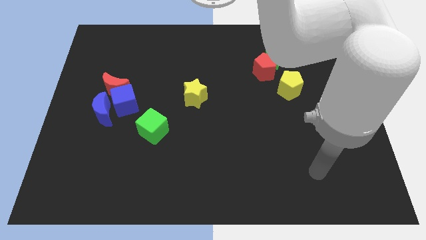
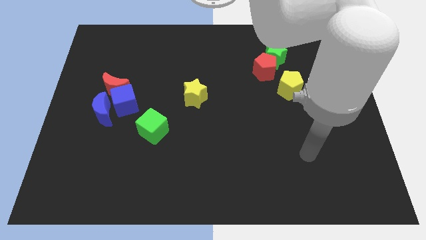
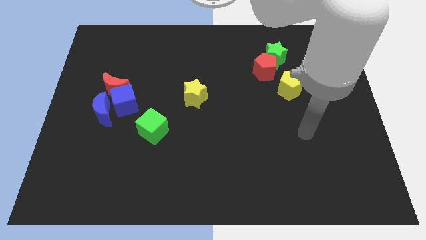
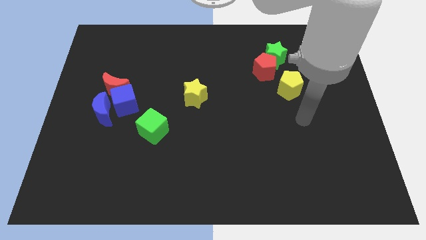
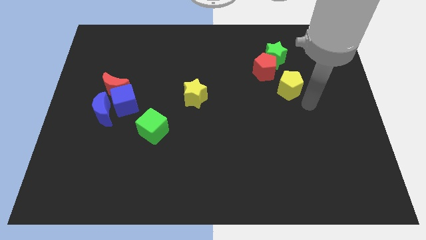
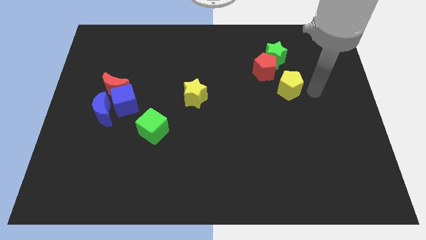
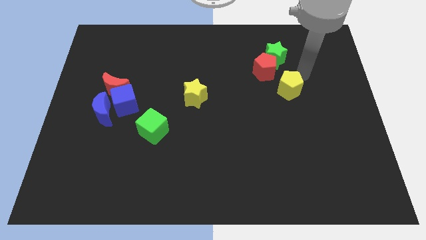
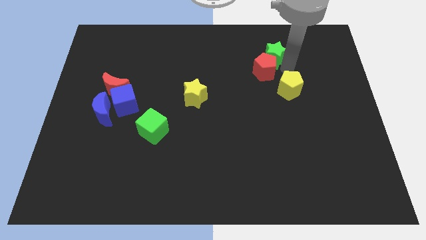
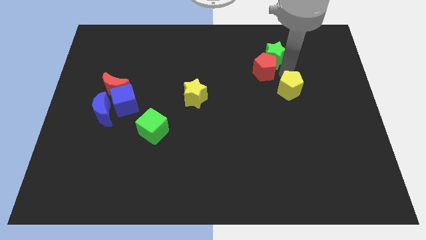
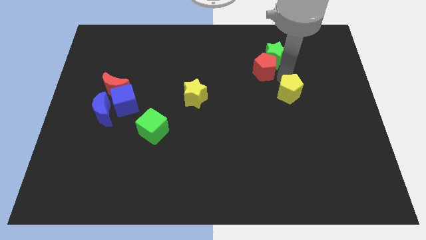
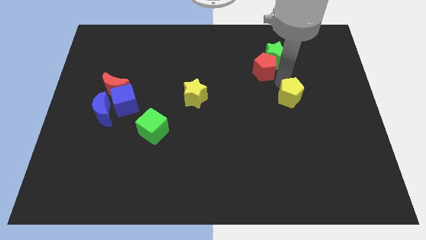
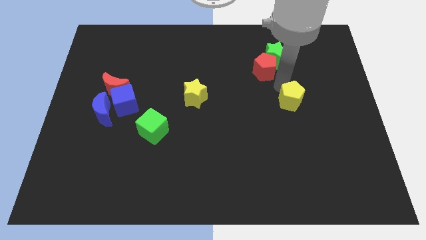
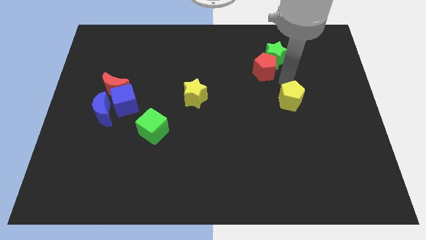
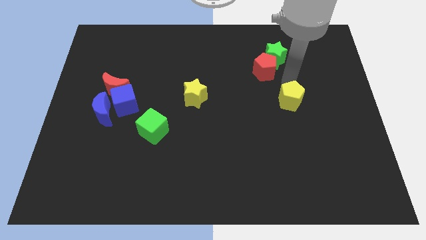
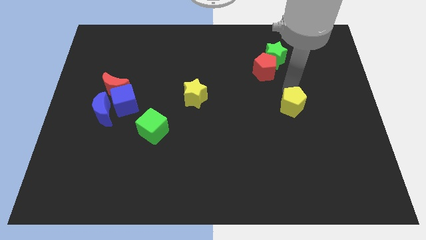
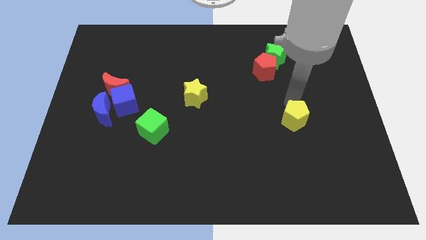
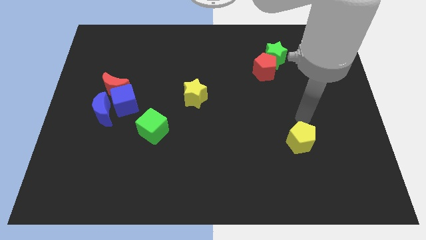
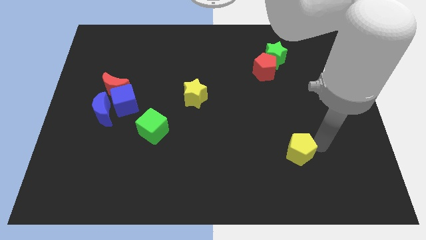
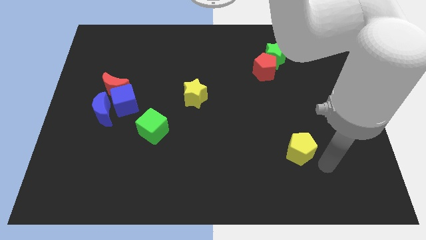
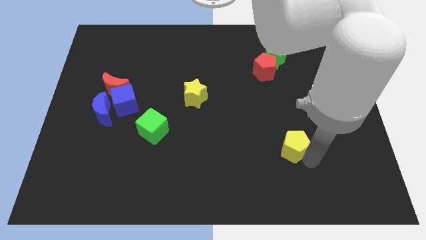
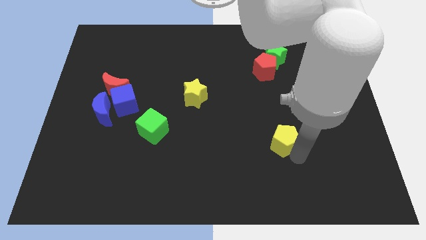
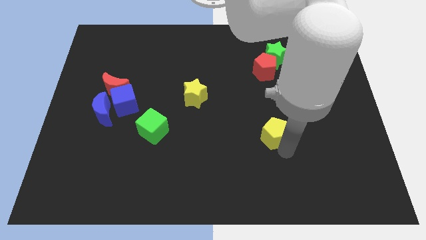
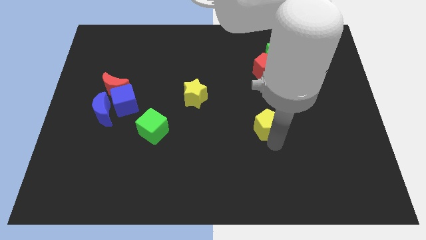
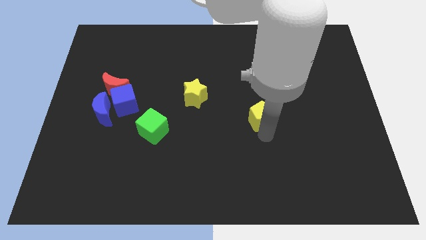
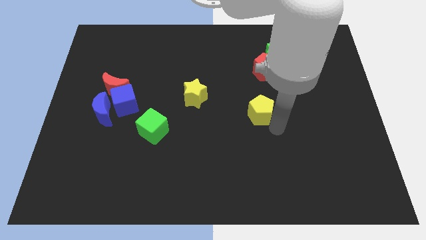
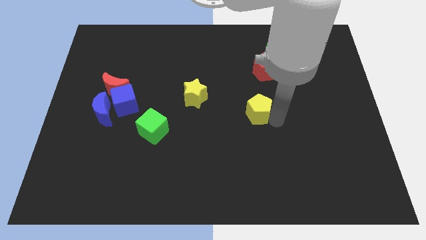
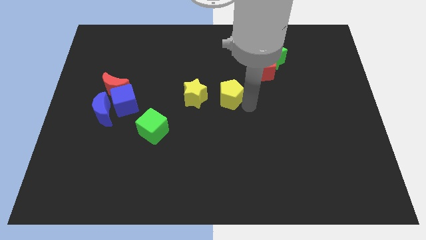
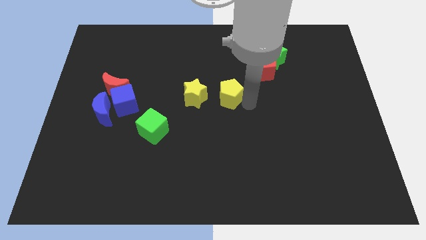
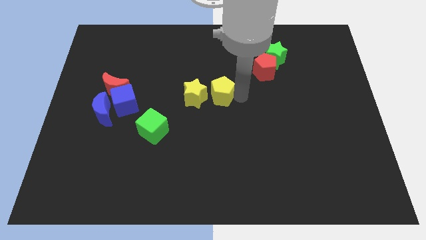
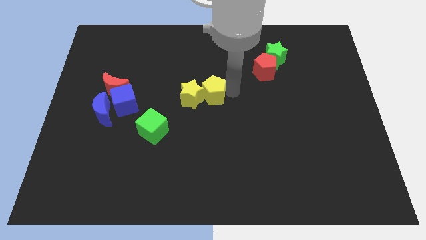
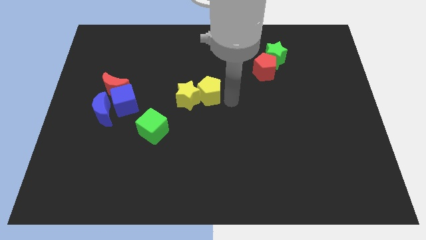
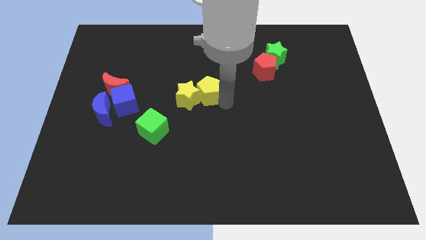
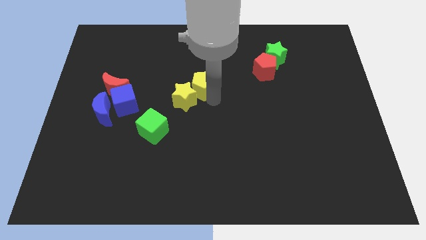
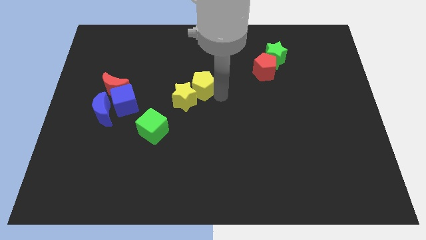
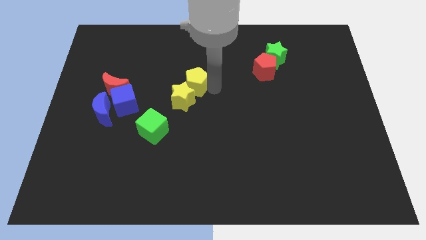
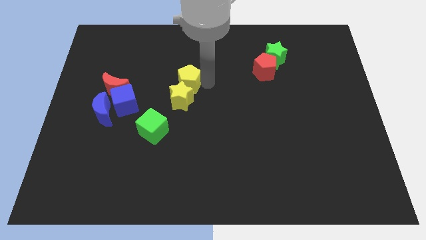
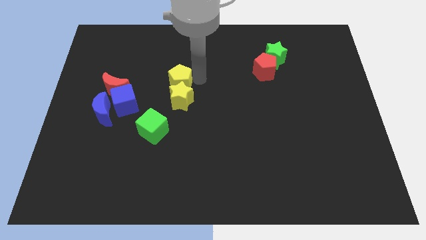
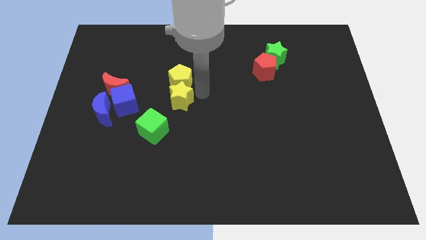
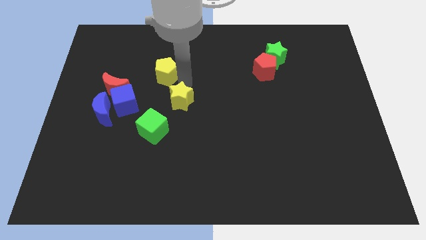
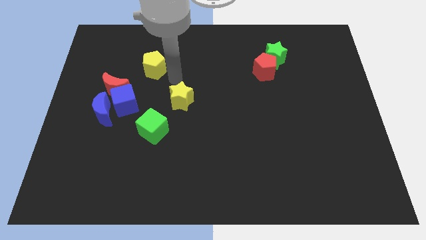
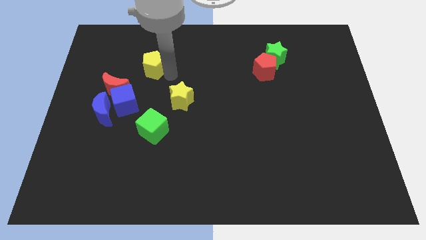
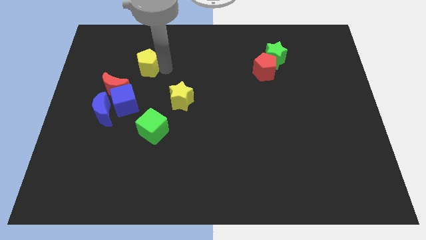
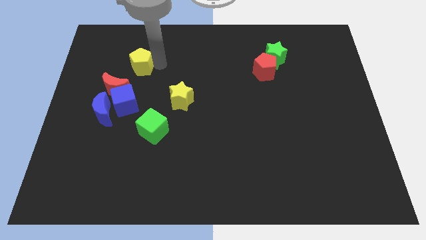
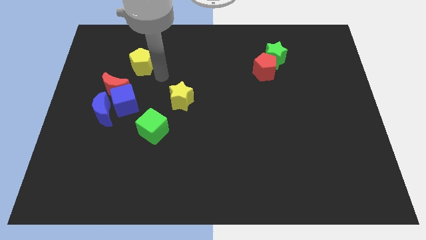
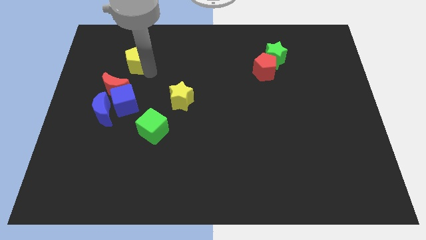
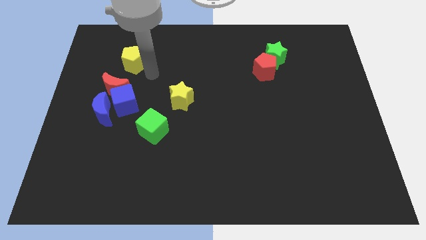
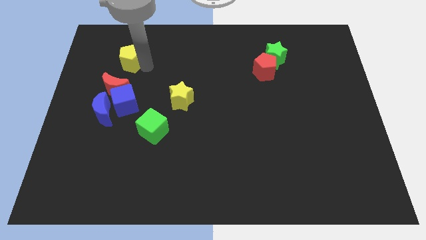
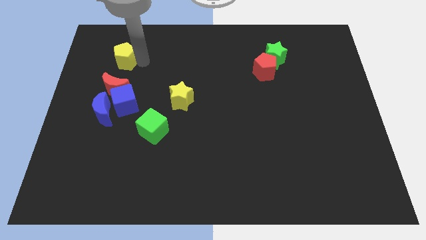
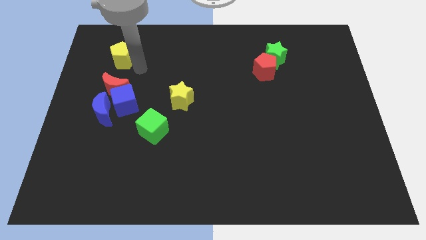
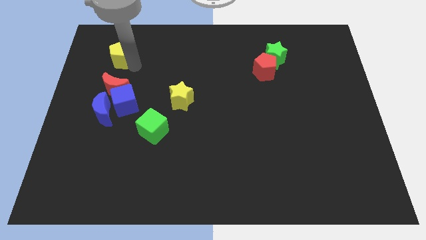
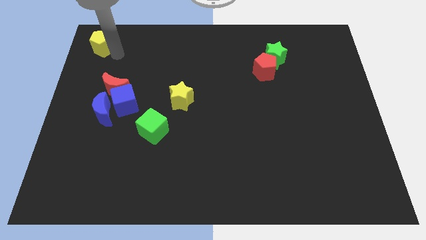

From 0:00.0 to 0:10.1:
push the yellow pentagon to the upper left corner

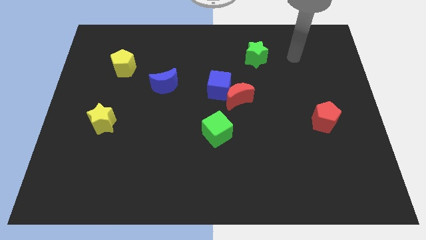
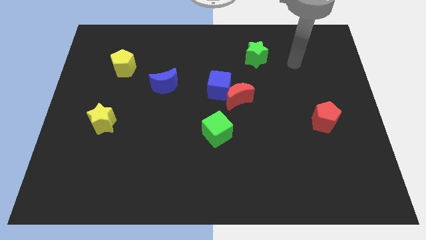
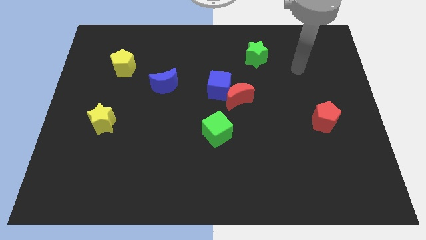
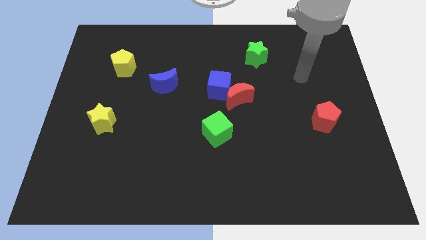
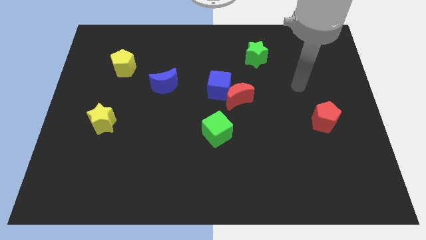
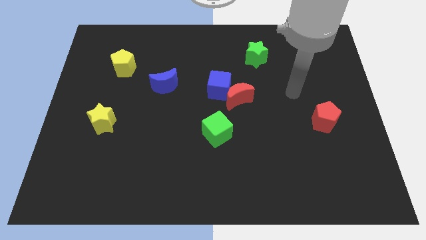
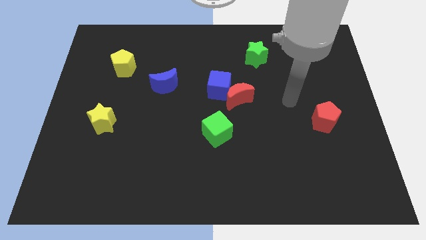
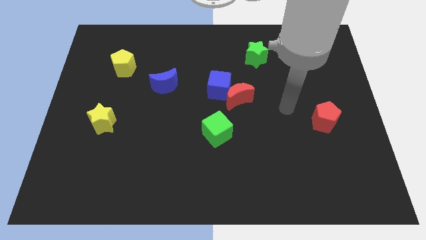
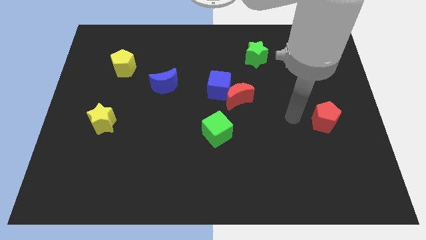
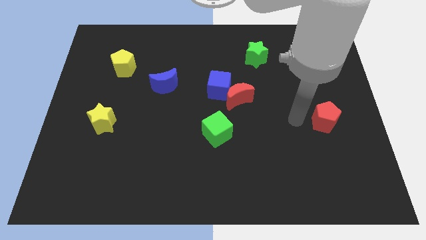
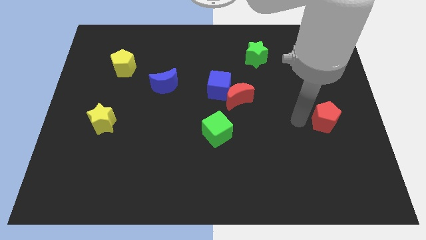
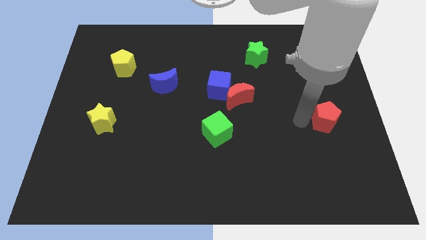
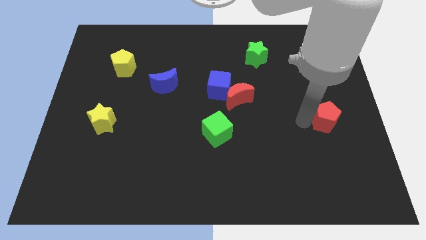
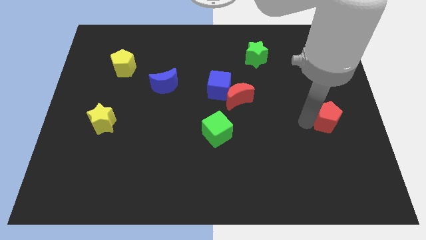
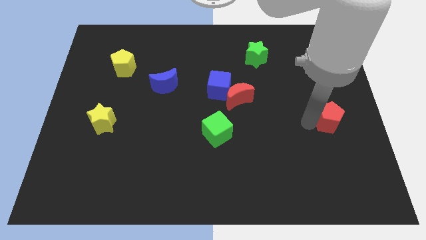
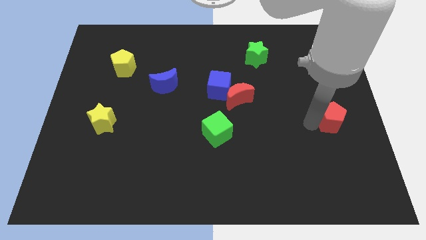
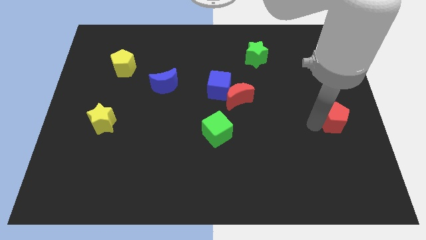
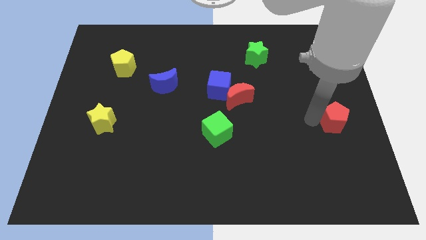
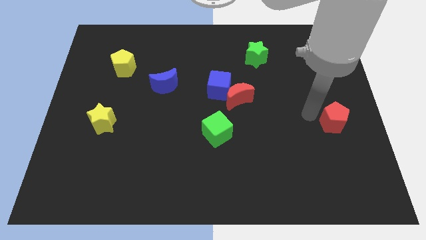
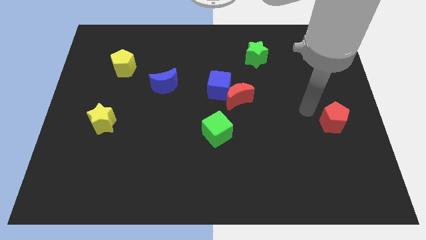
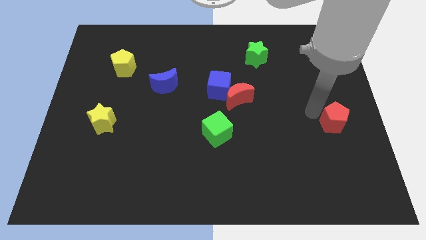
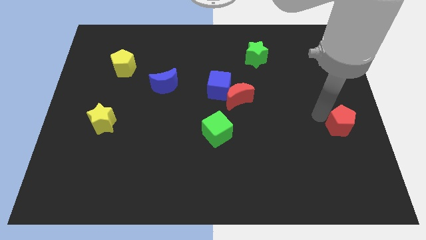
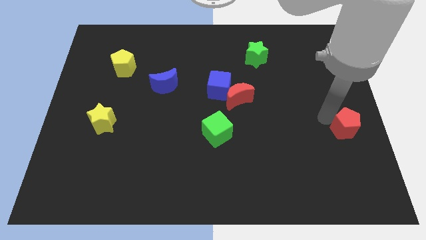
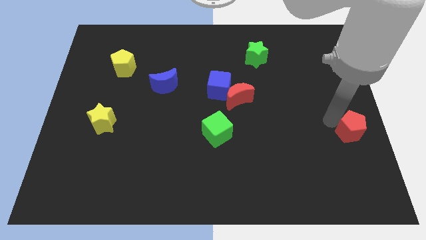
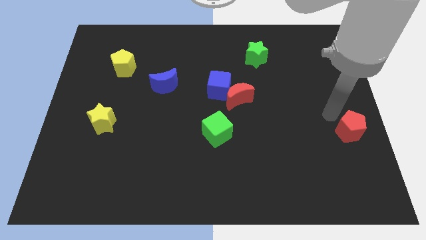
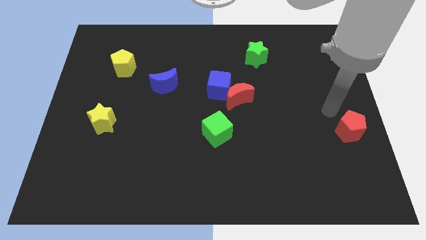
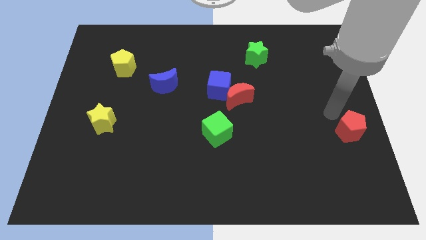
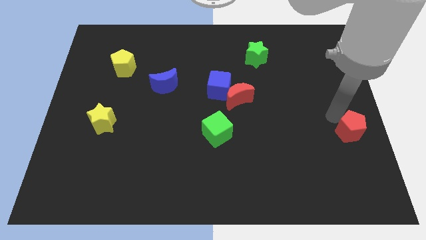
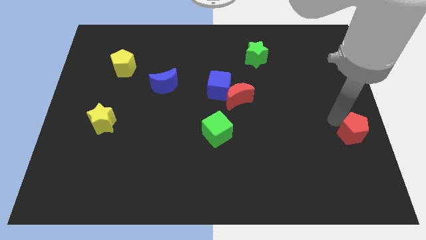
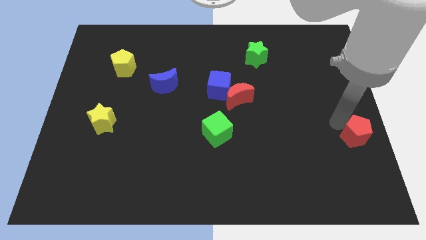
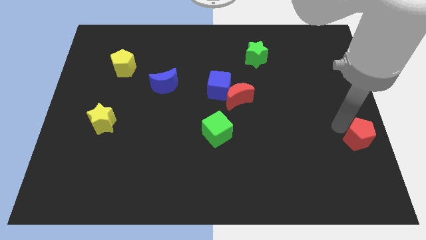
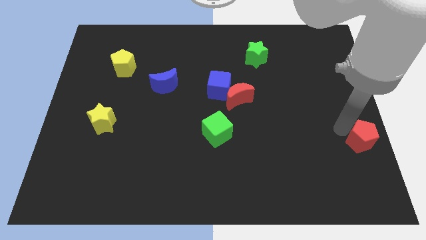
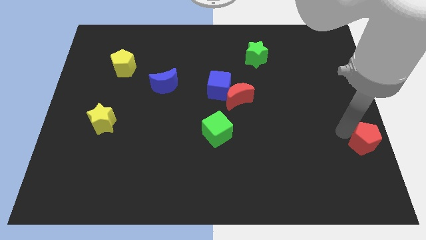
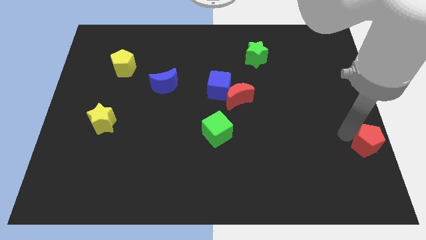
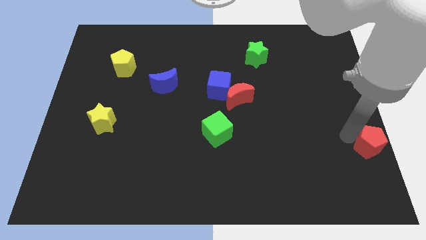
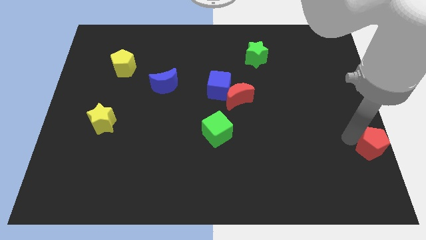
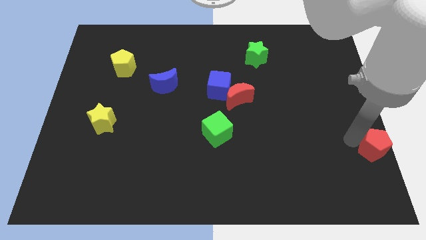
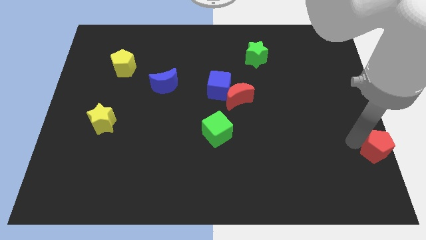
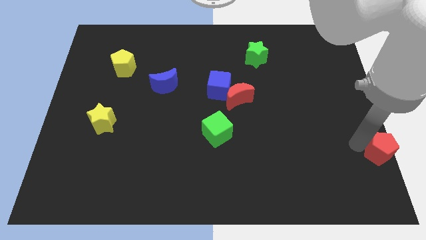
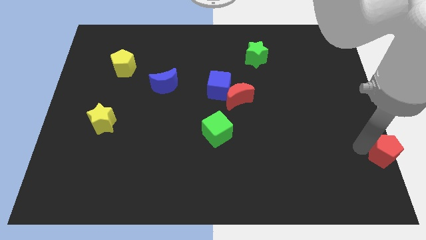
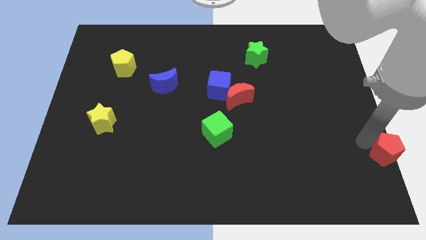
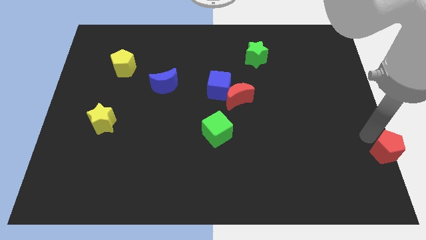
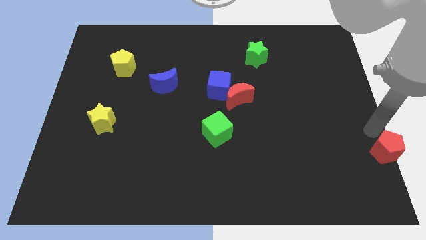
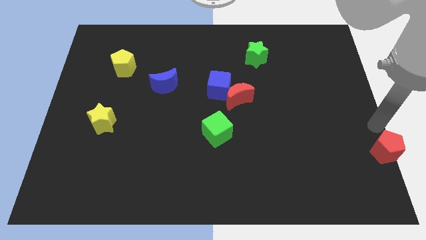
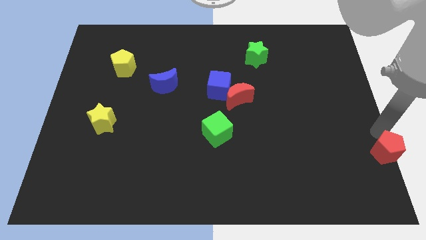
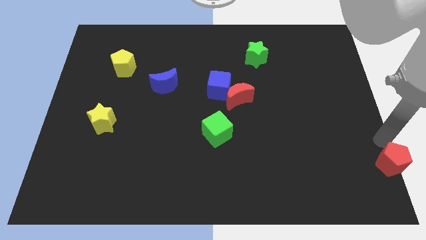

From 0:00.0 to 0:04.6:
put the red pentagon to the bottom right corner
